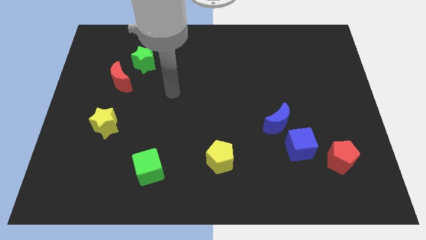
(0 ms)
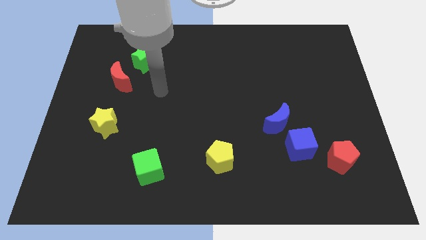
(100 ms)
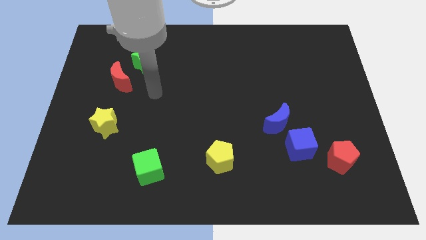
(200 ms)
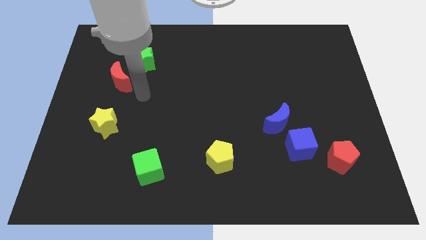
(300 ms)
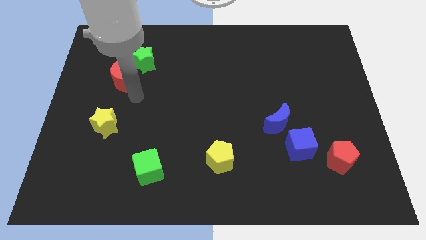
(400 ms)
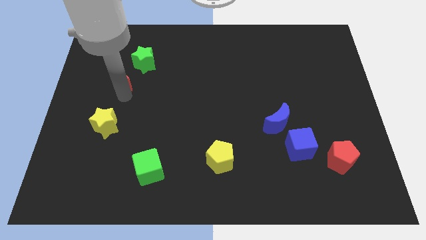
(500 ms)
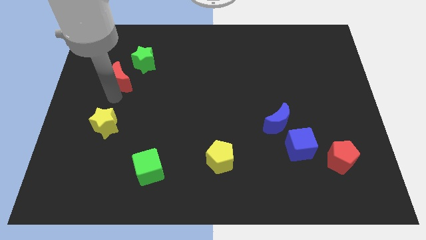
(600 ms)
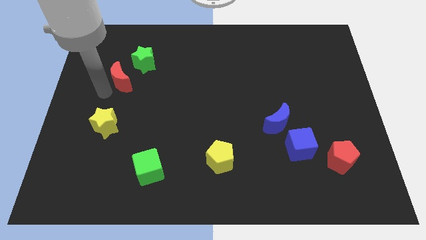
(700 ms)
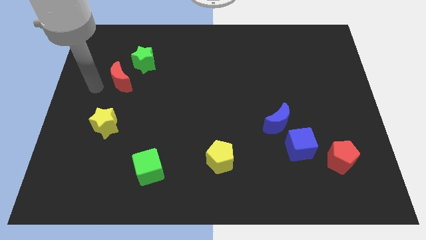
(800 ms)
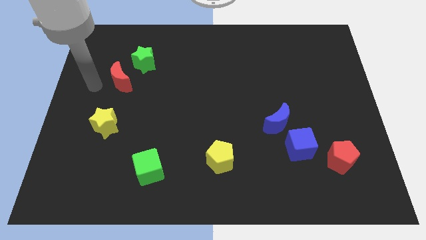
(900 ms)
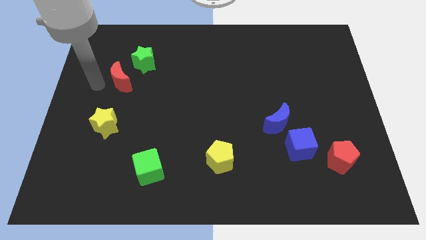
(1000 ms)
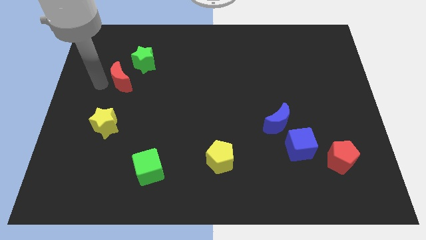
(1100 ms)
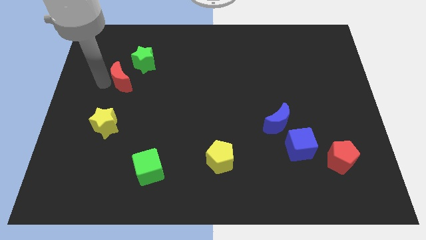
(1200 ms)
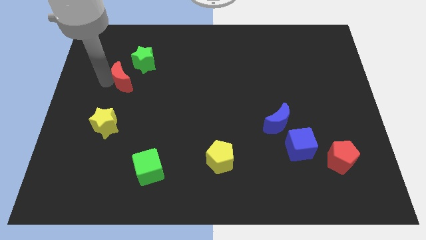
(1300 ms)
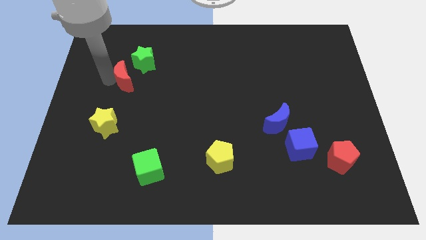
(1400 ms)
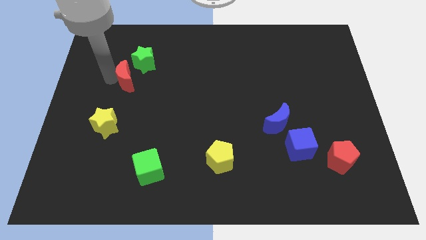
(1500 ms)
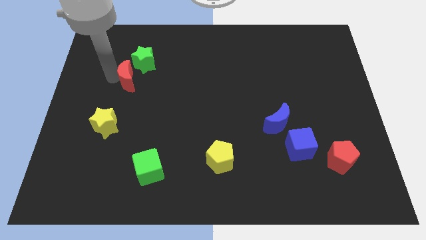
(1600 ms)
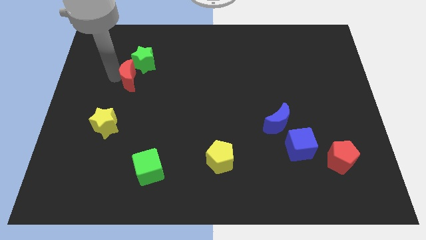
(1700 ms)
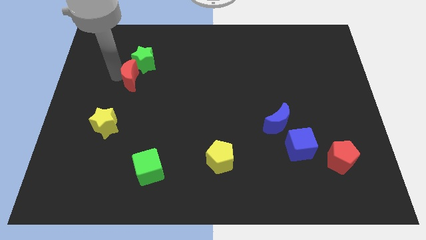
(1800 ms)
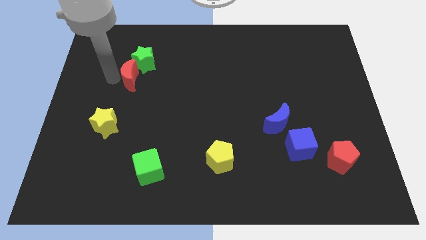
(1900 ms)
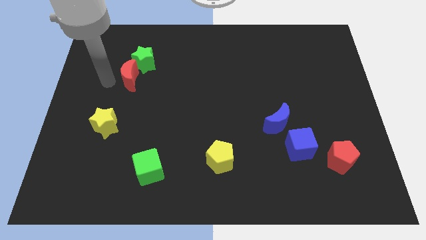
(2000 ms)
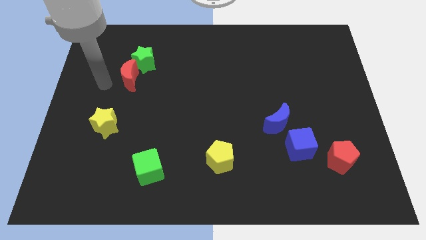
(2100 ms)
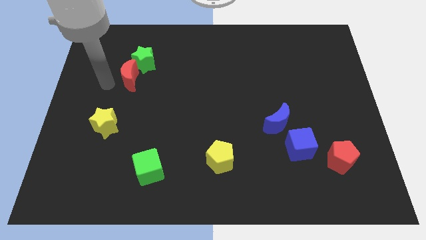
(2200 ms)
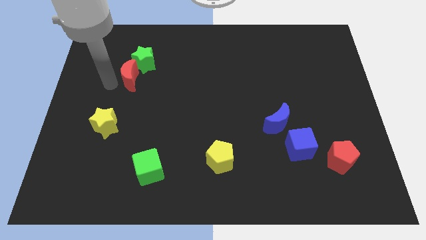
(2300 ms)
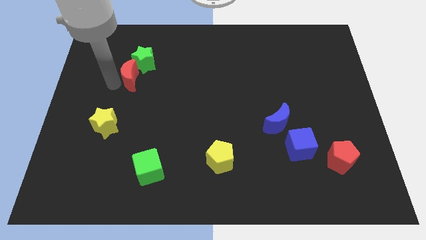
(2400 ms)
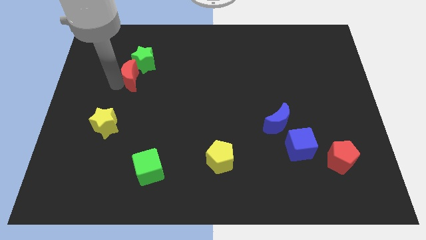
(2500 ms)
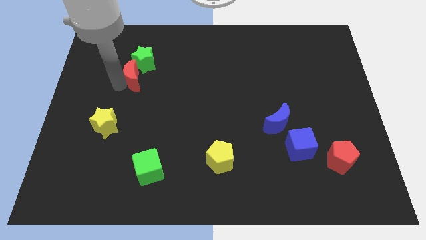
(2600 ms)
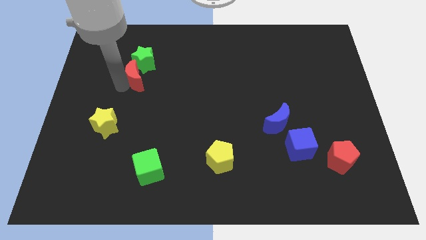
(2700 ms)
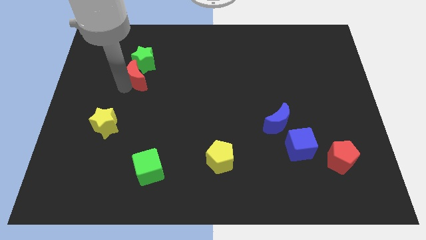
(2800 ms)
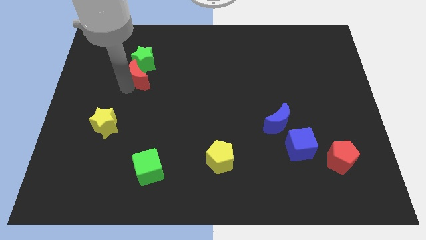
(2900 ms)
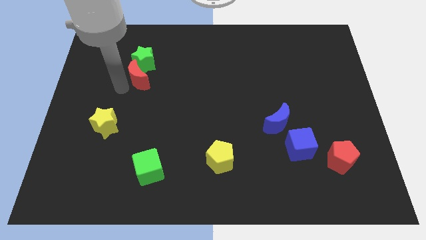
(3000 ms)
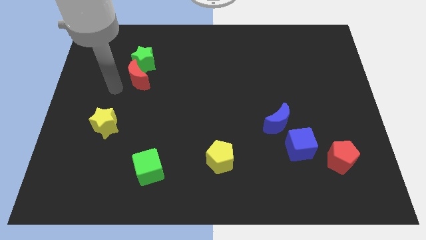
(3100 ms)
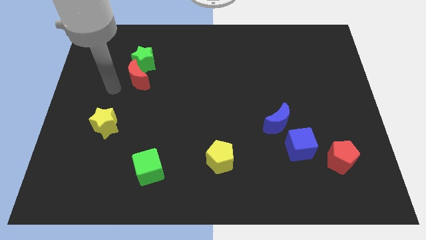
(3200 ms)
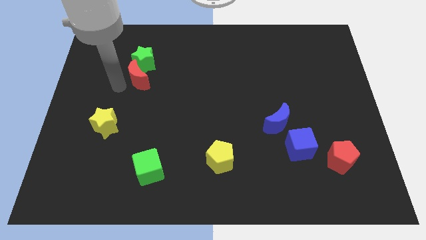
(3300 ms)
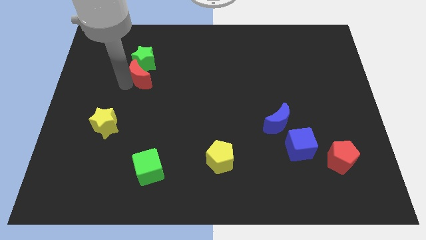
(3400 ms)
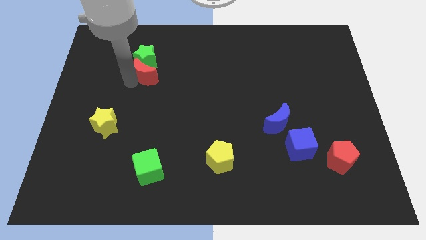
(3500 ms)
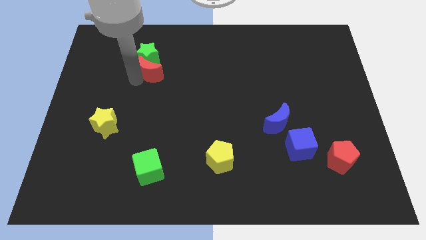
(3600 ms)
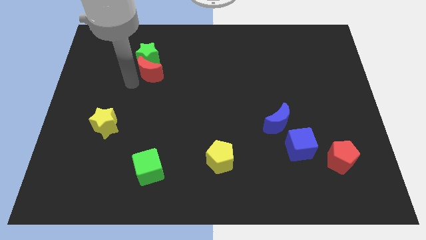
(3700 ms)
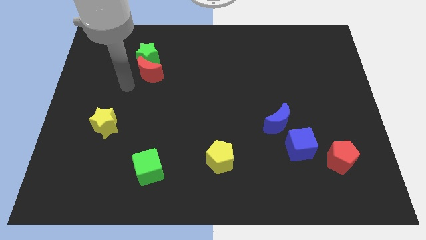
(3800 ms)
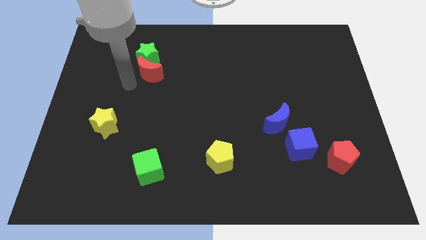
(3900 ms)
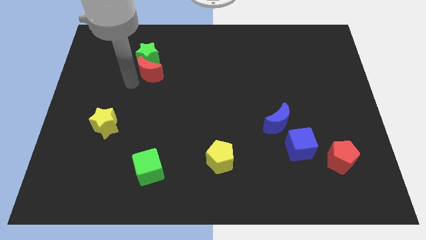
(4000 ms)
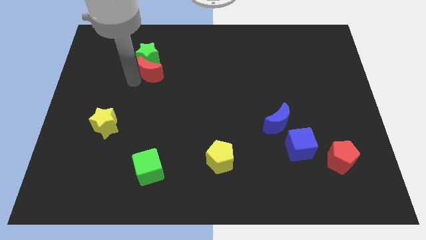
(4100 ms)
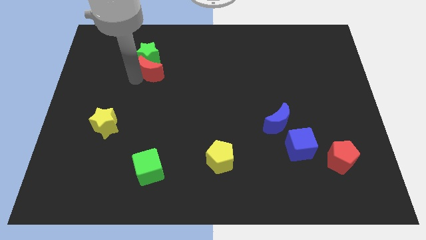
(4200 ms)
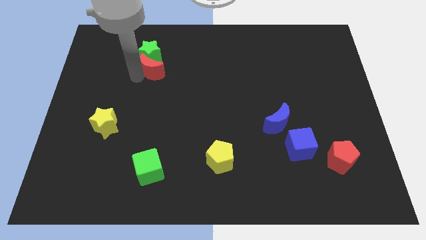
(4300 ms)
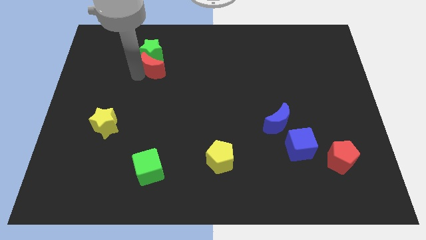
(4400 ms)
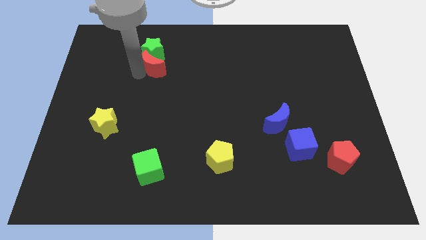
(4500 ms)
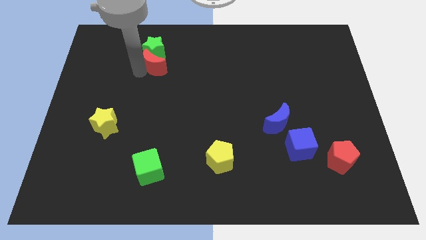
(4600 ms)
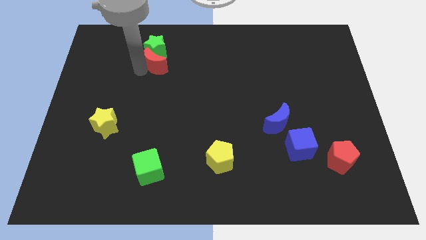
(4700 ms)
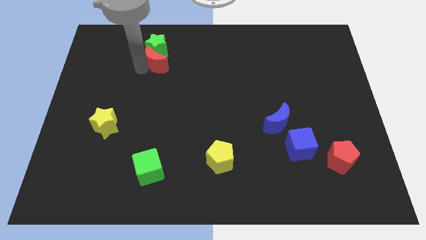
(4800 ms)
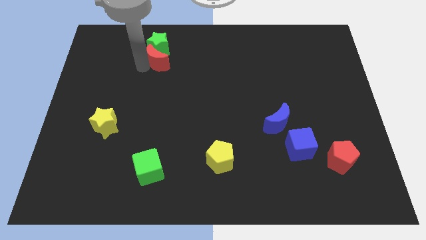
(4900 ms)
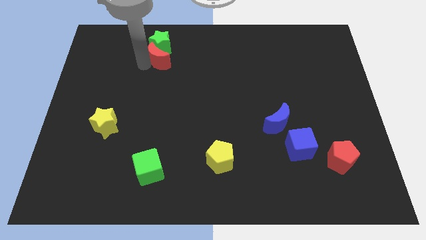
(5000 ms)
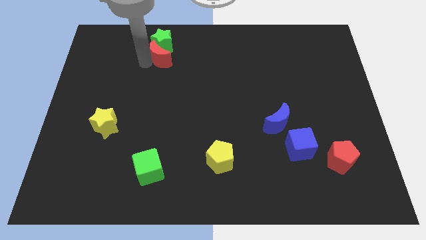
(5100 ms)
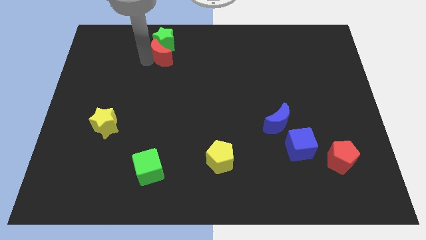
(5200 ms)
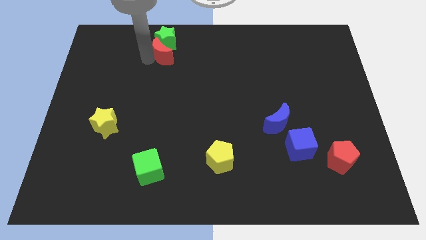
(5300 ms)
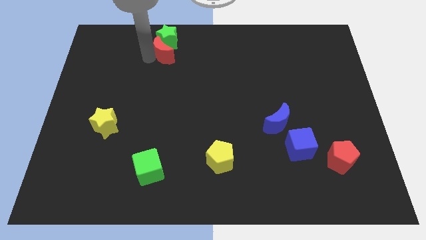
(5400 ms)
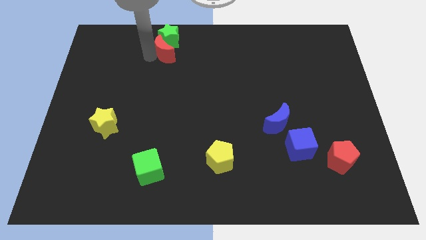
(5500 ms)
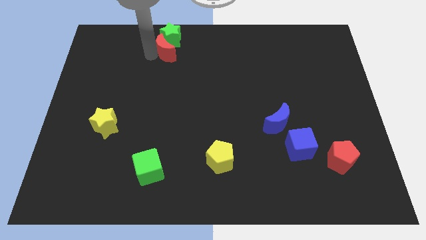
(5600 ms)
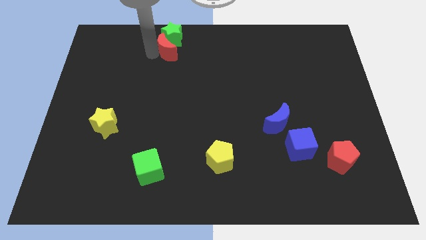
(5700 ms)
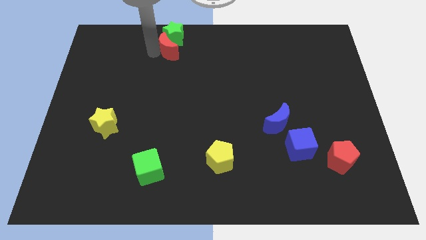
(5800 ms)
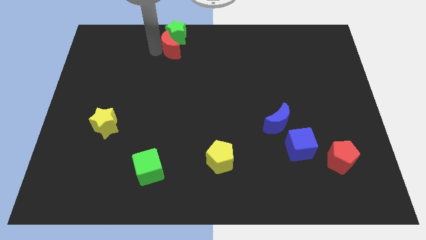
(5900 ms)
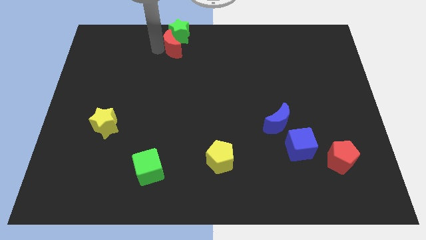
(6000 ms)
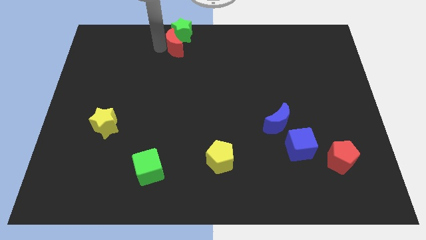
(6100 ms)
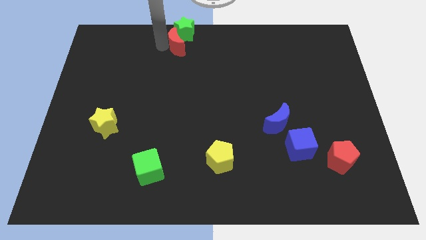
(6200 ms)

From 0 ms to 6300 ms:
put the red moon to the top side

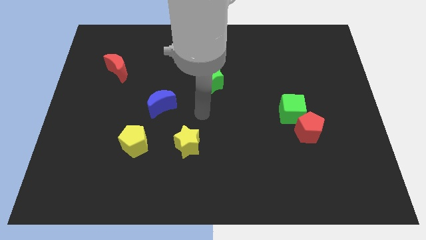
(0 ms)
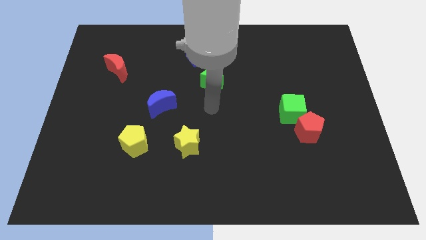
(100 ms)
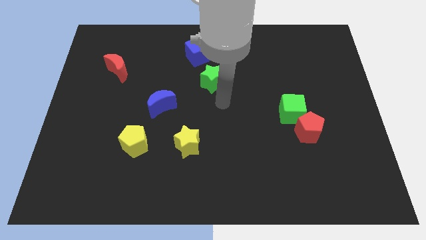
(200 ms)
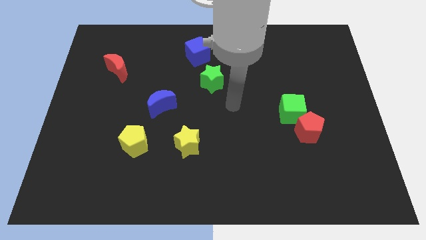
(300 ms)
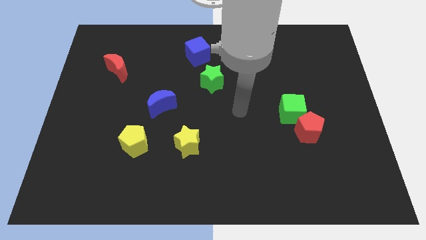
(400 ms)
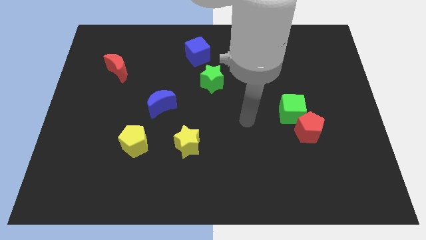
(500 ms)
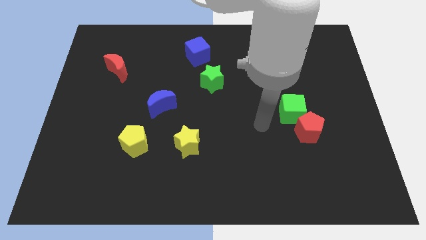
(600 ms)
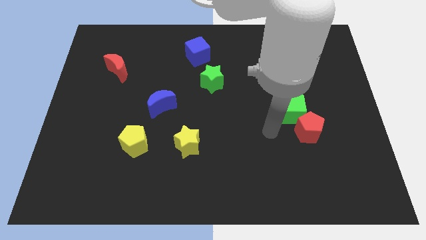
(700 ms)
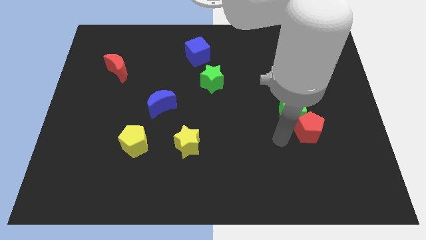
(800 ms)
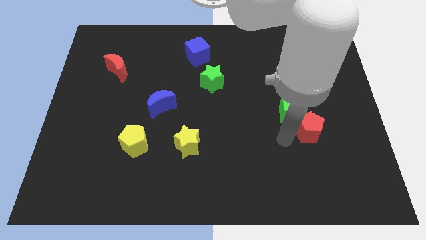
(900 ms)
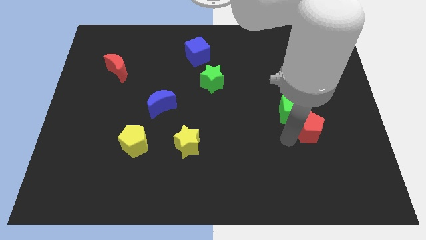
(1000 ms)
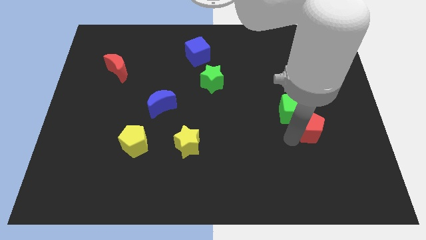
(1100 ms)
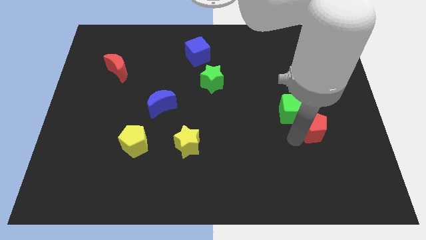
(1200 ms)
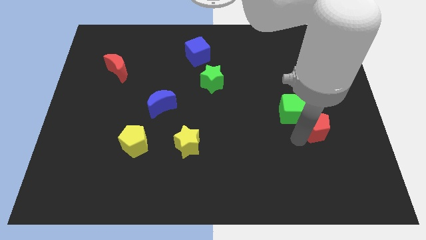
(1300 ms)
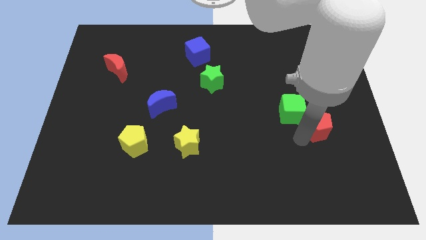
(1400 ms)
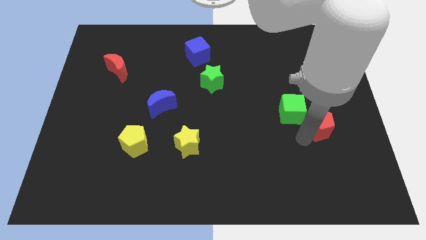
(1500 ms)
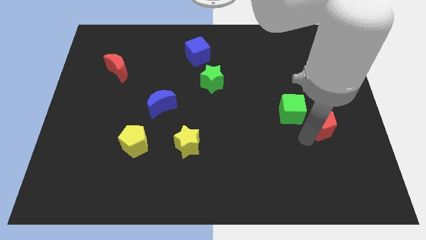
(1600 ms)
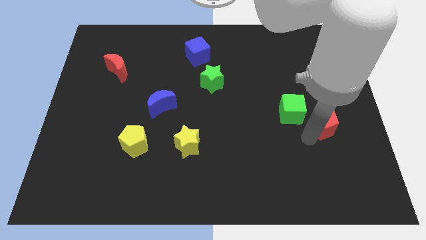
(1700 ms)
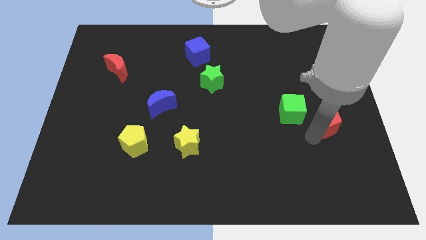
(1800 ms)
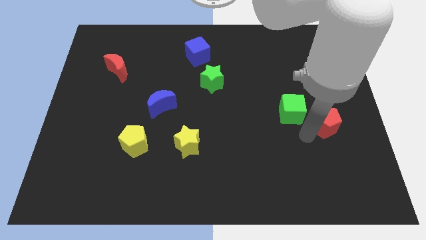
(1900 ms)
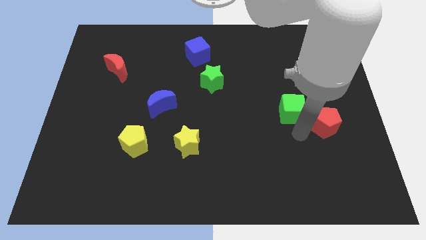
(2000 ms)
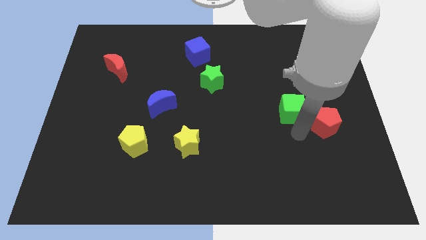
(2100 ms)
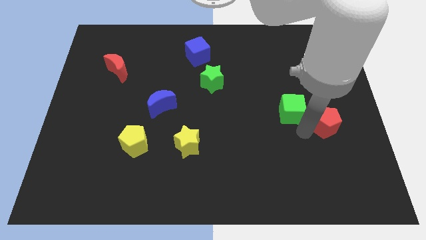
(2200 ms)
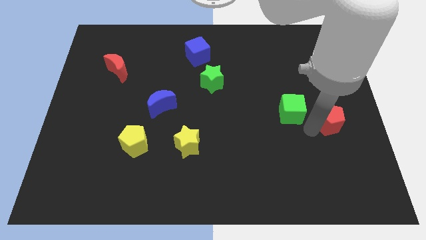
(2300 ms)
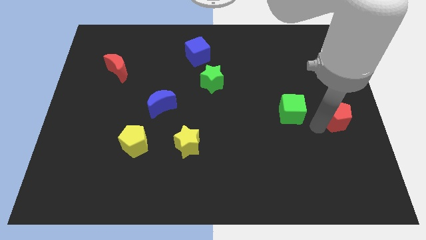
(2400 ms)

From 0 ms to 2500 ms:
put the red pentagon to the right side
